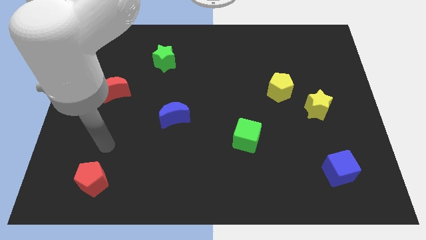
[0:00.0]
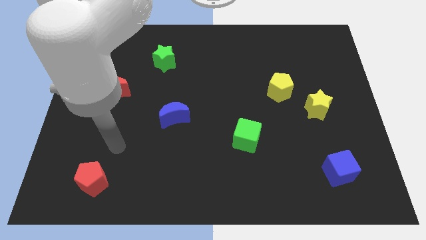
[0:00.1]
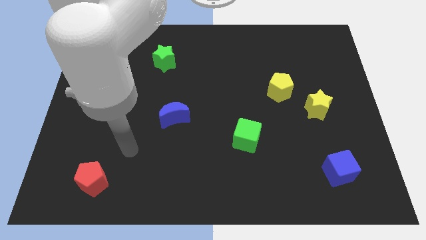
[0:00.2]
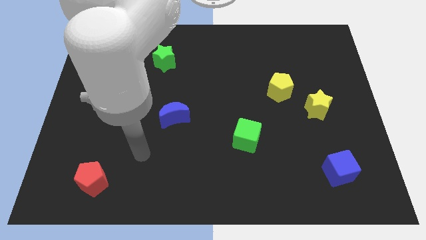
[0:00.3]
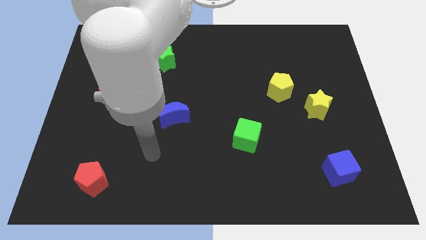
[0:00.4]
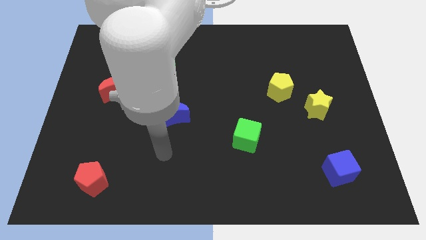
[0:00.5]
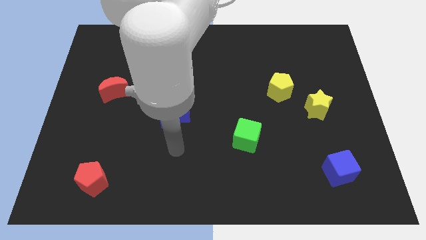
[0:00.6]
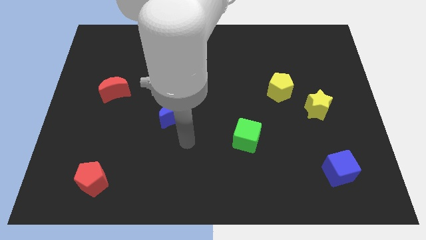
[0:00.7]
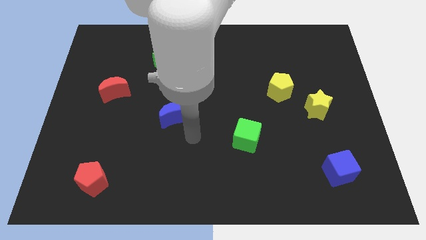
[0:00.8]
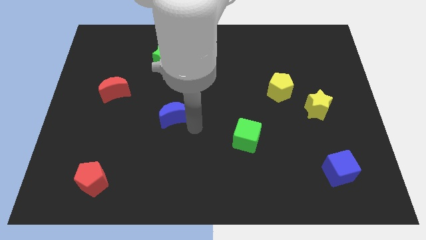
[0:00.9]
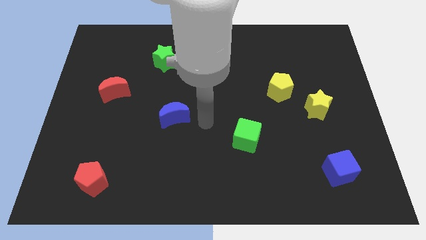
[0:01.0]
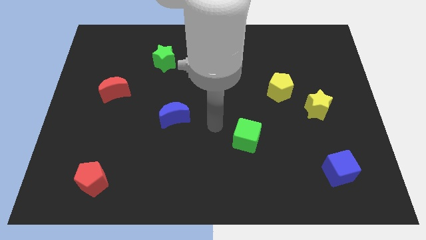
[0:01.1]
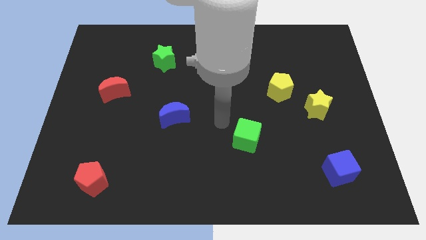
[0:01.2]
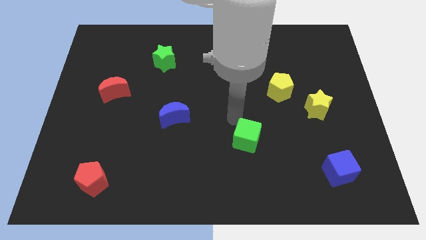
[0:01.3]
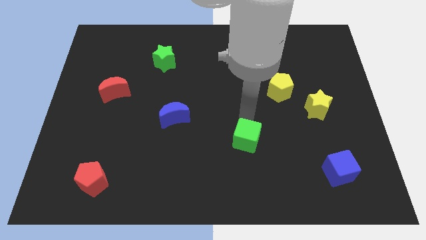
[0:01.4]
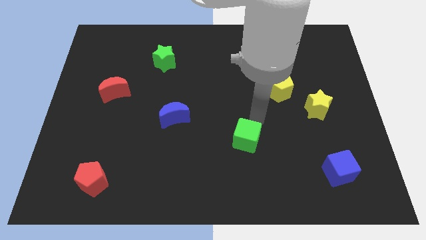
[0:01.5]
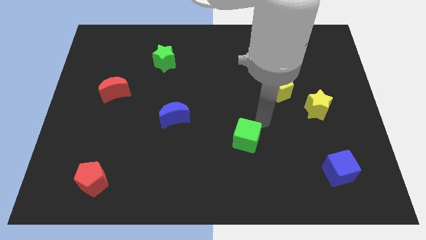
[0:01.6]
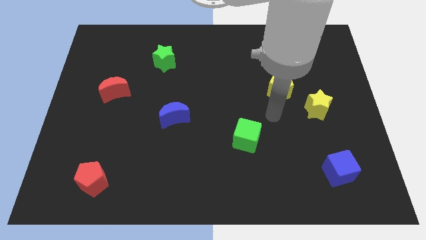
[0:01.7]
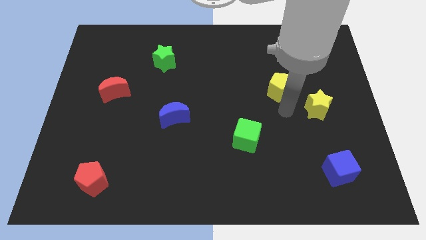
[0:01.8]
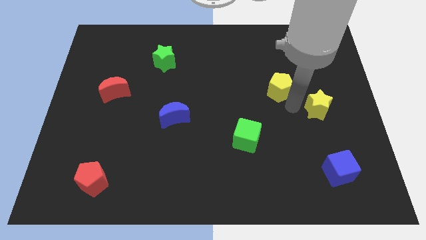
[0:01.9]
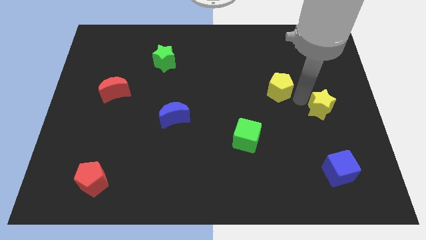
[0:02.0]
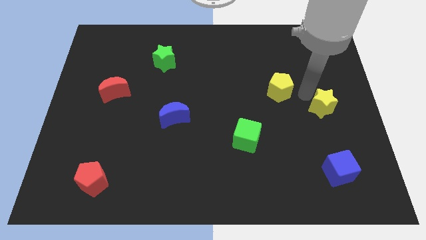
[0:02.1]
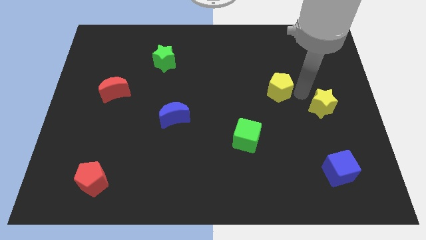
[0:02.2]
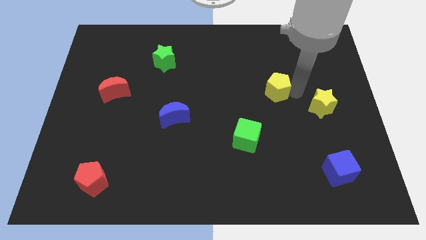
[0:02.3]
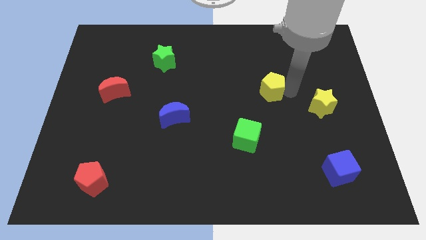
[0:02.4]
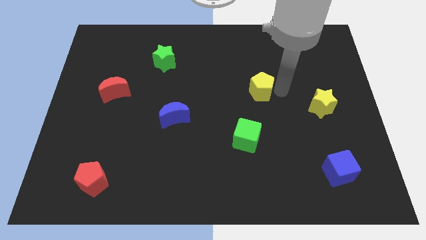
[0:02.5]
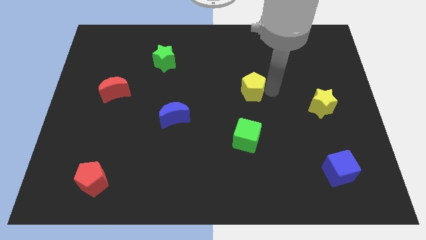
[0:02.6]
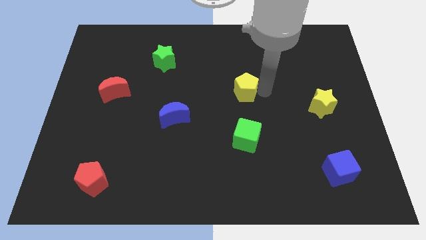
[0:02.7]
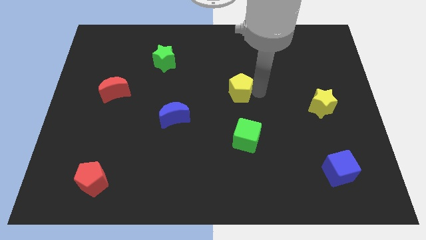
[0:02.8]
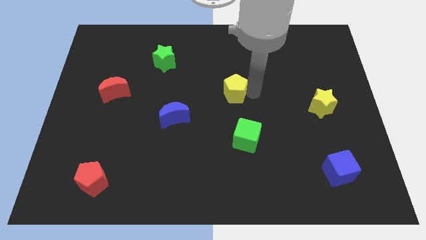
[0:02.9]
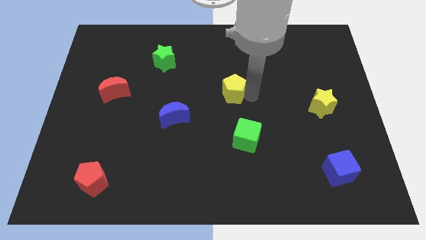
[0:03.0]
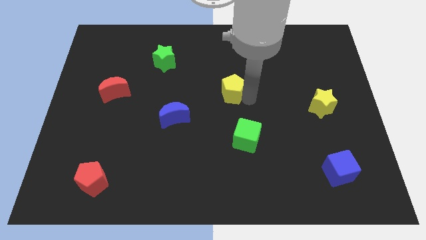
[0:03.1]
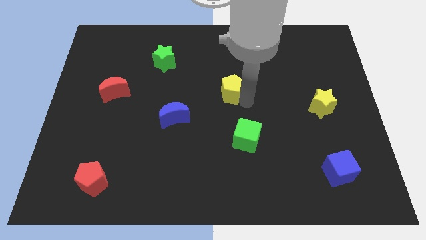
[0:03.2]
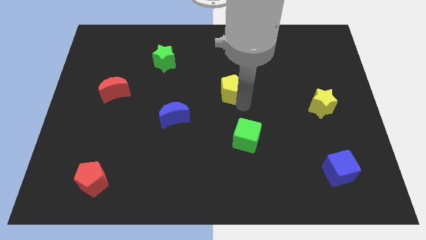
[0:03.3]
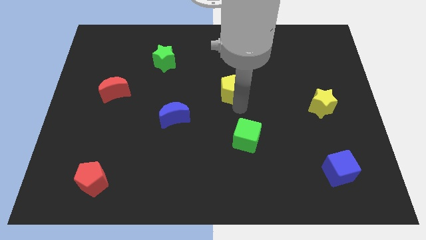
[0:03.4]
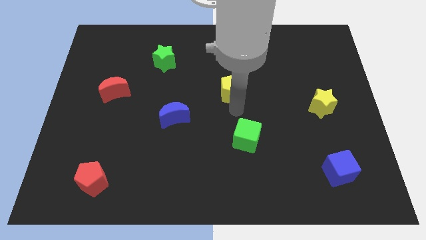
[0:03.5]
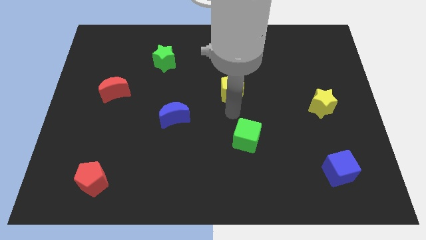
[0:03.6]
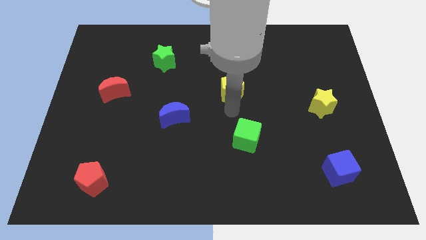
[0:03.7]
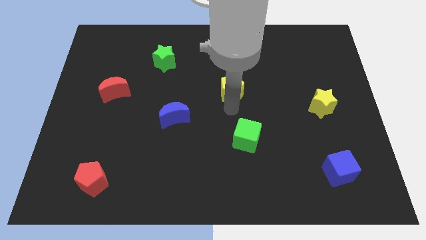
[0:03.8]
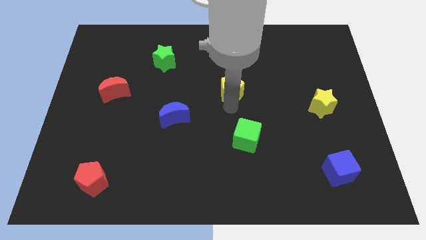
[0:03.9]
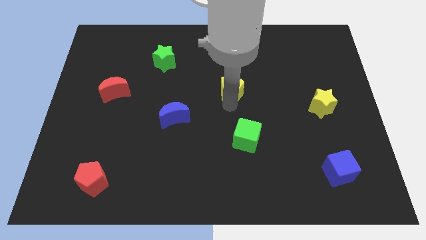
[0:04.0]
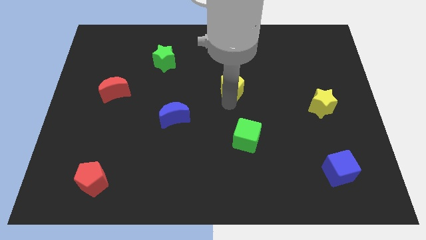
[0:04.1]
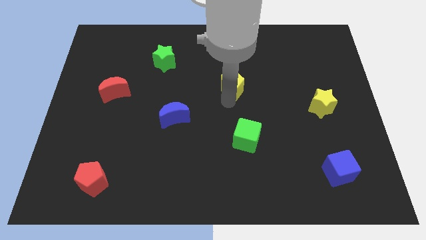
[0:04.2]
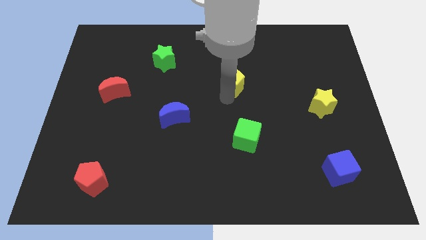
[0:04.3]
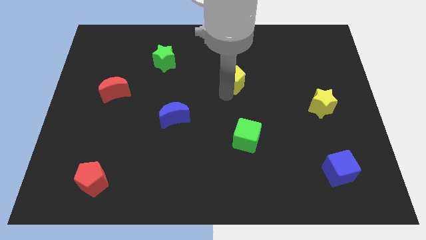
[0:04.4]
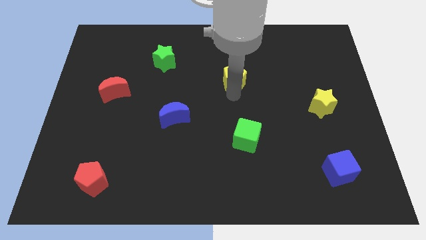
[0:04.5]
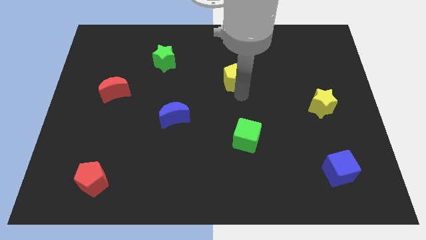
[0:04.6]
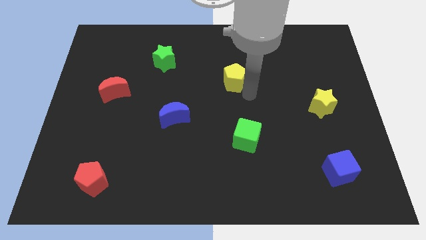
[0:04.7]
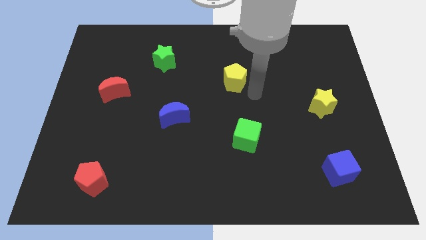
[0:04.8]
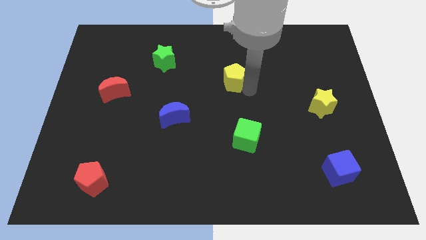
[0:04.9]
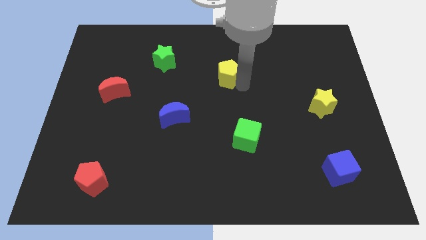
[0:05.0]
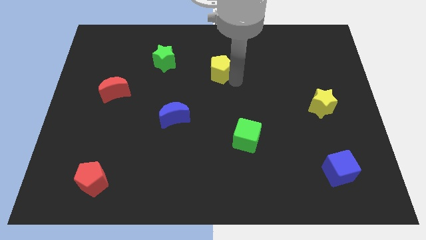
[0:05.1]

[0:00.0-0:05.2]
push the yellow pentagon to the right side of the green star
